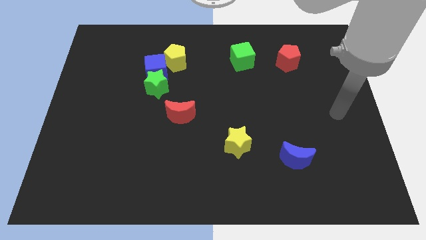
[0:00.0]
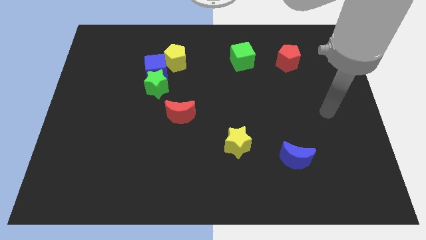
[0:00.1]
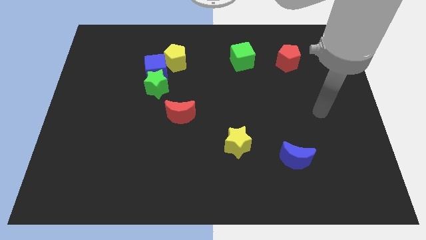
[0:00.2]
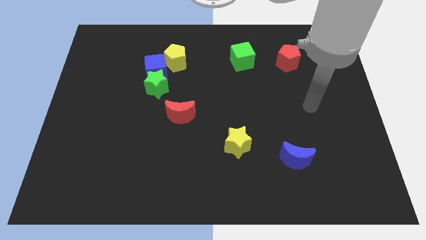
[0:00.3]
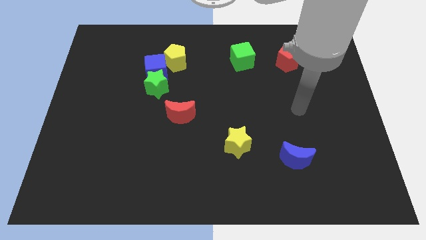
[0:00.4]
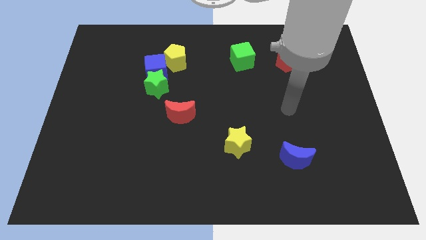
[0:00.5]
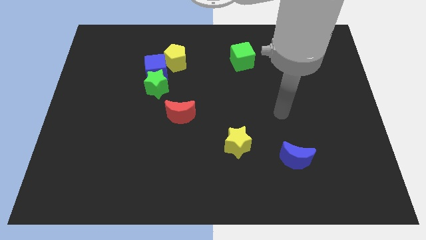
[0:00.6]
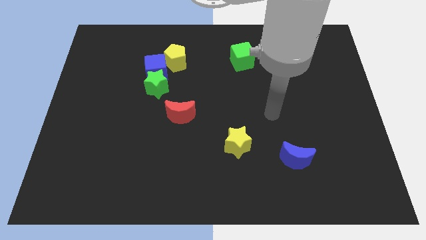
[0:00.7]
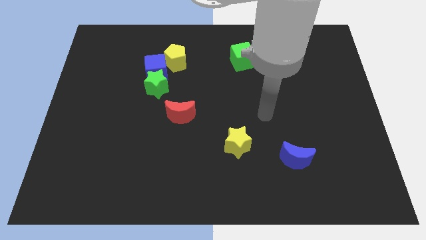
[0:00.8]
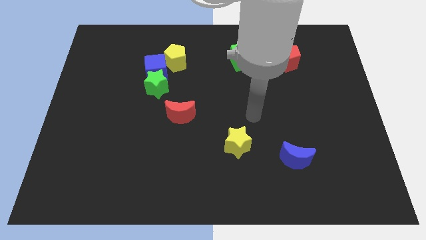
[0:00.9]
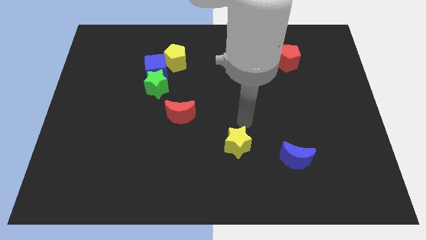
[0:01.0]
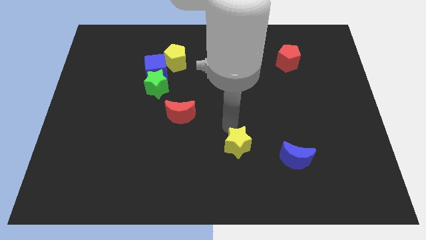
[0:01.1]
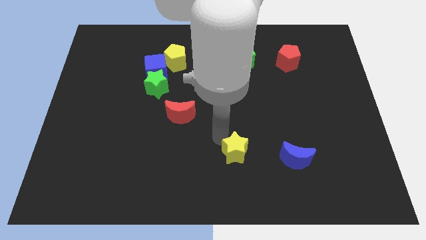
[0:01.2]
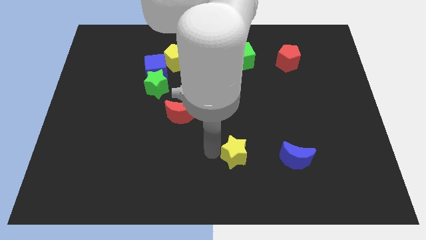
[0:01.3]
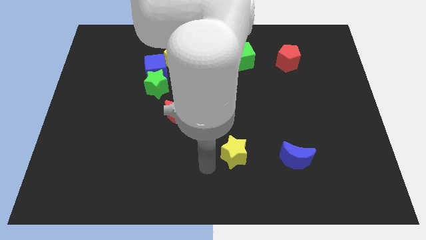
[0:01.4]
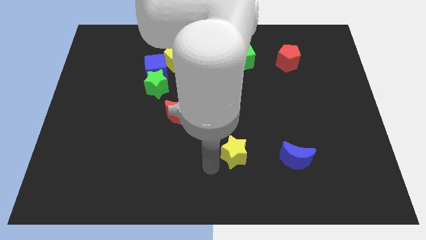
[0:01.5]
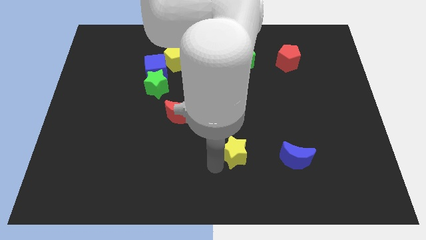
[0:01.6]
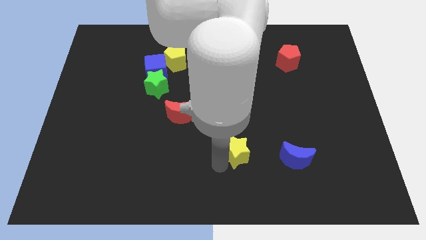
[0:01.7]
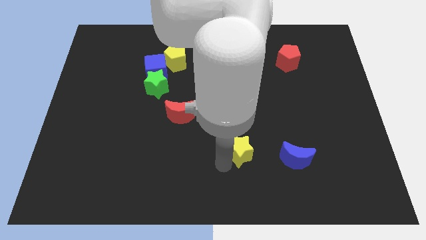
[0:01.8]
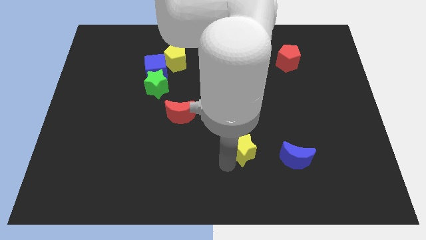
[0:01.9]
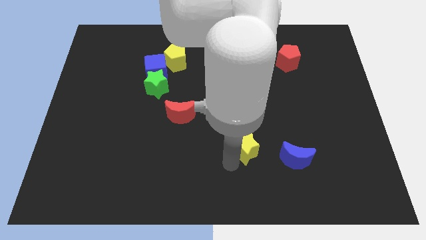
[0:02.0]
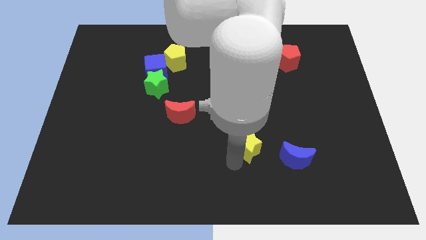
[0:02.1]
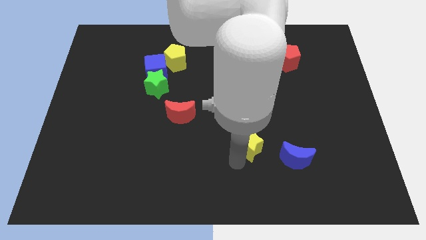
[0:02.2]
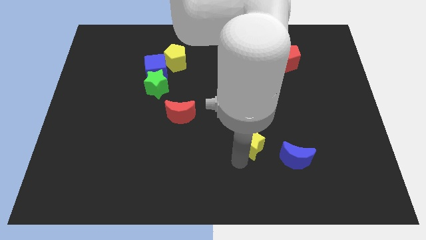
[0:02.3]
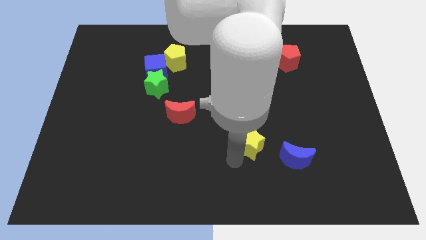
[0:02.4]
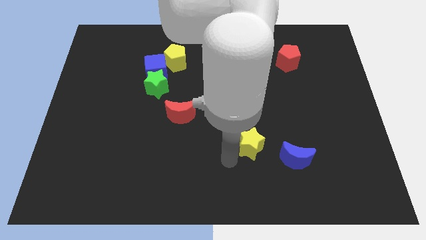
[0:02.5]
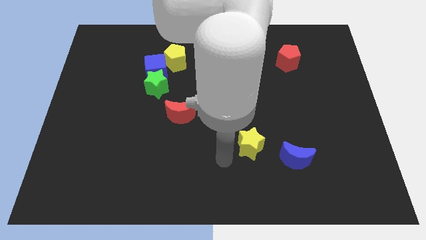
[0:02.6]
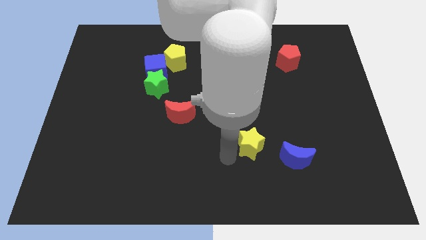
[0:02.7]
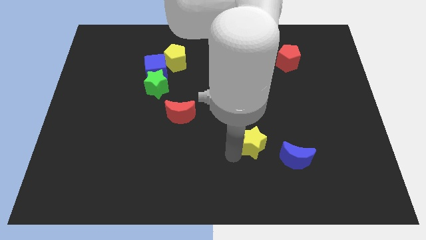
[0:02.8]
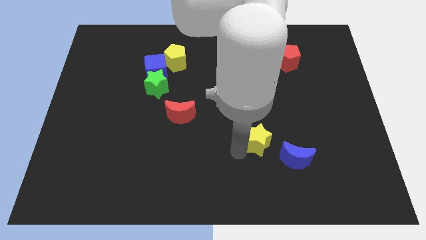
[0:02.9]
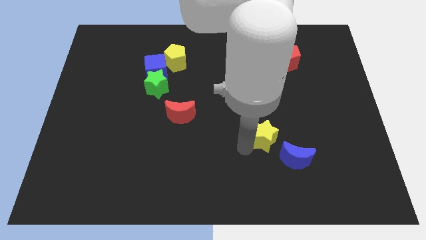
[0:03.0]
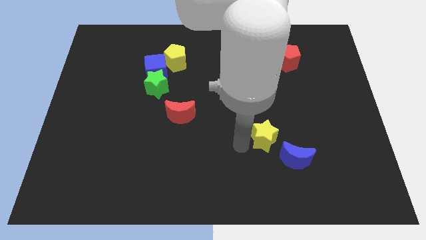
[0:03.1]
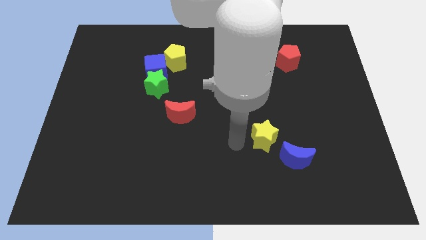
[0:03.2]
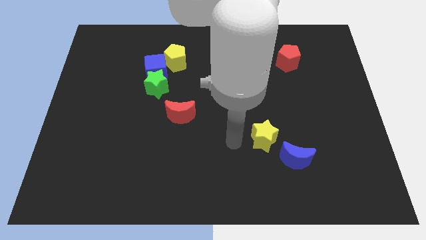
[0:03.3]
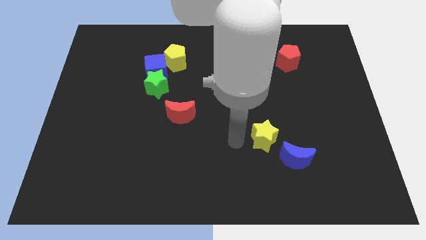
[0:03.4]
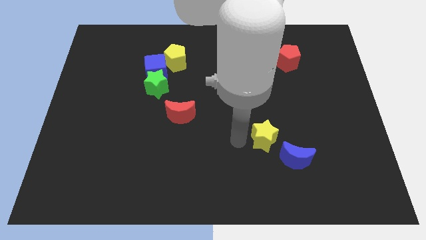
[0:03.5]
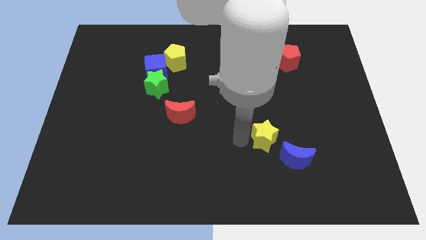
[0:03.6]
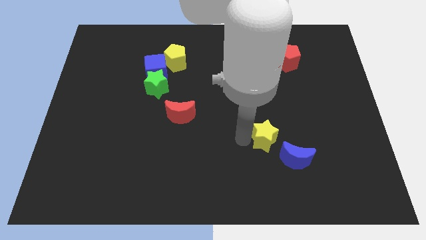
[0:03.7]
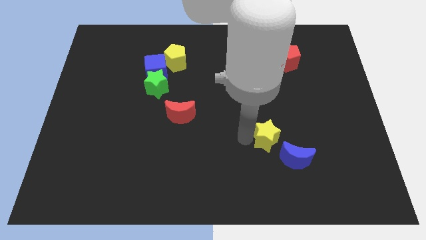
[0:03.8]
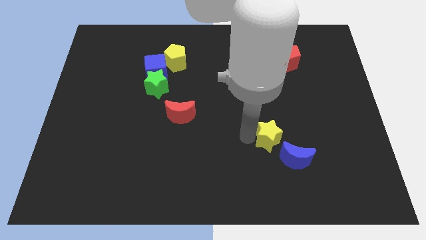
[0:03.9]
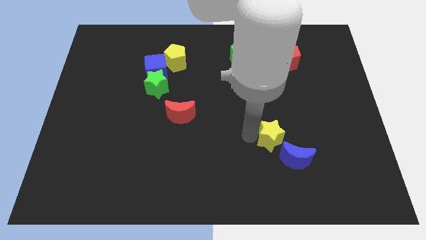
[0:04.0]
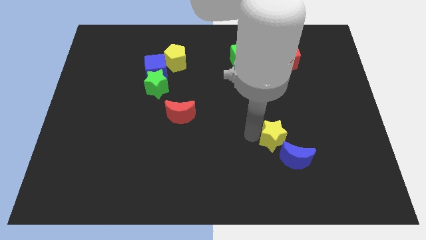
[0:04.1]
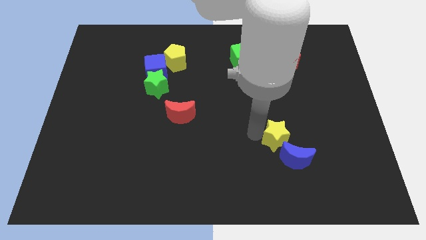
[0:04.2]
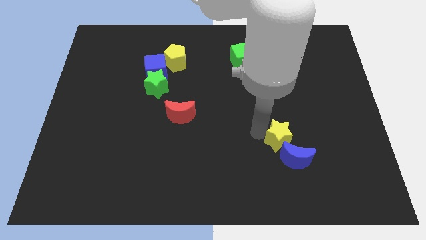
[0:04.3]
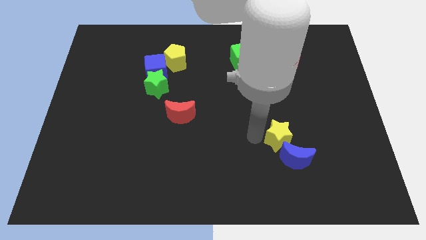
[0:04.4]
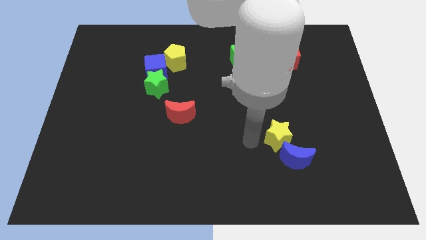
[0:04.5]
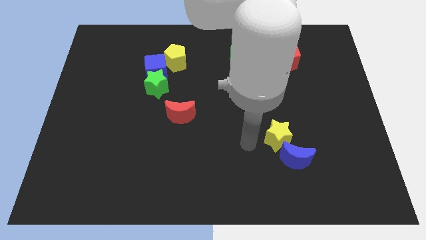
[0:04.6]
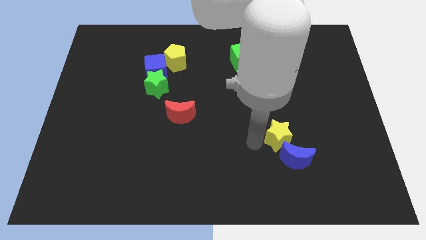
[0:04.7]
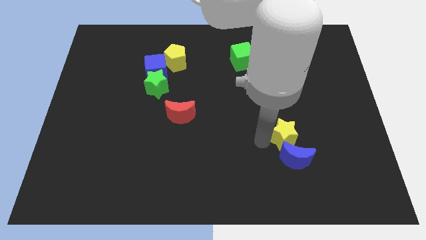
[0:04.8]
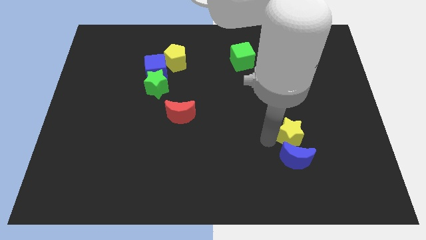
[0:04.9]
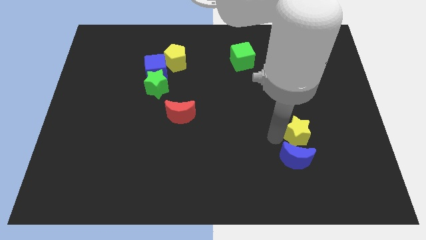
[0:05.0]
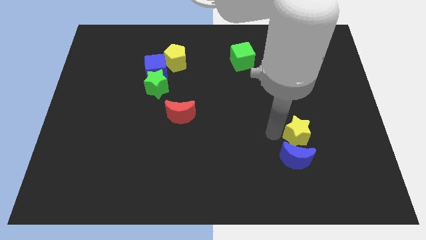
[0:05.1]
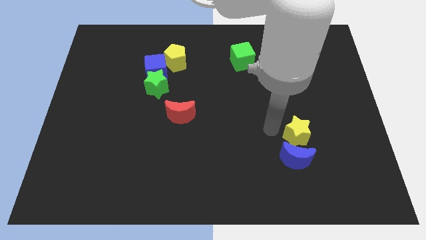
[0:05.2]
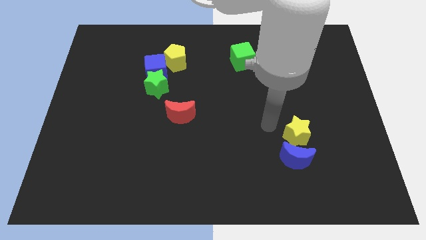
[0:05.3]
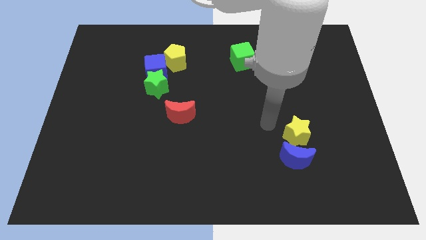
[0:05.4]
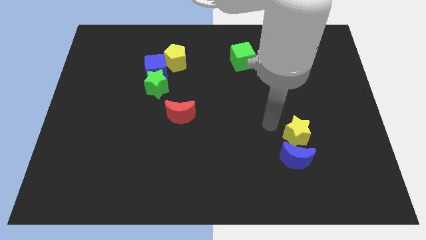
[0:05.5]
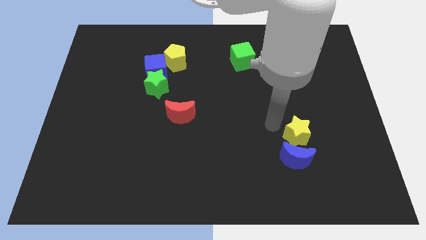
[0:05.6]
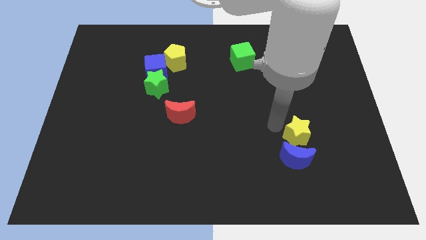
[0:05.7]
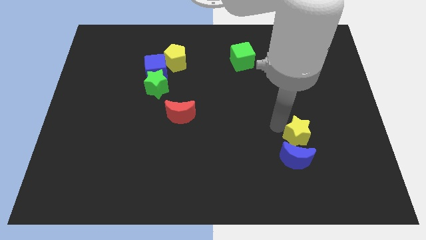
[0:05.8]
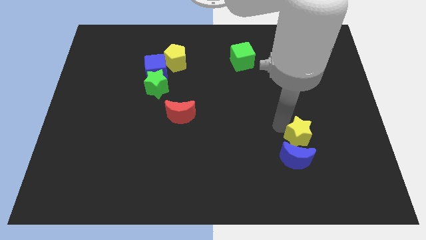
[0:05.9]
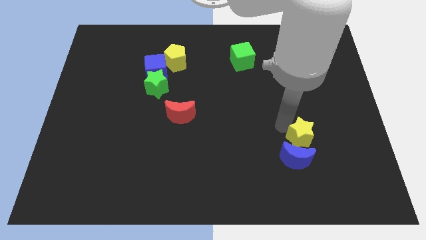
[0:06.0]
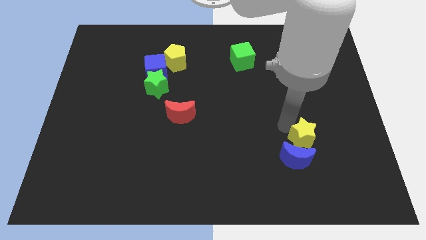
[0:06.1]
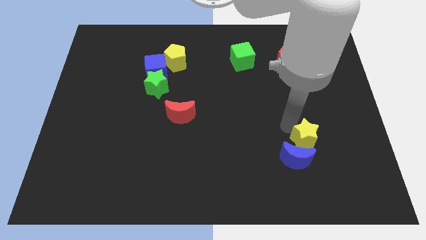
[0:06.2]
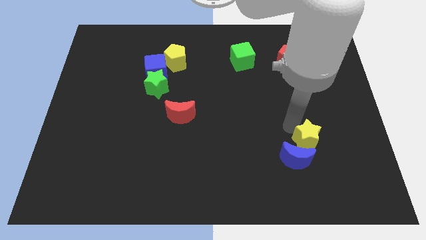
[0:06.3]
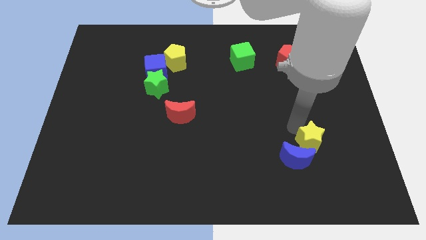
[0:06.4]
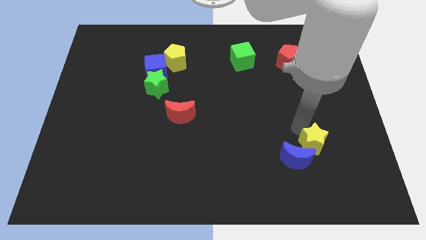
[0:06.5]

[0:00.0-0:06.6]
slide the yellow star just right of the blue moon
